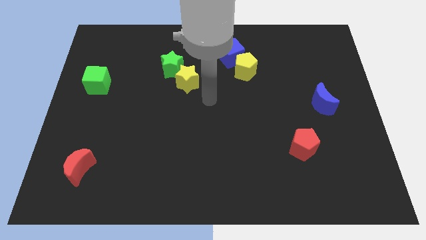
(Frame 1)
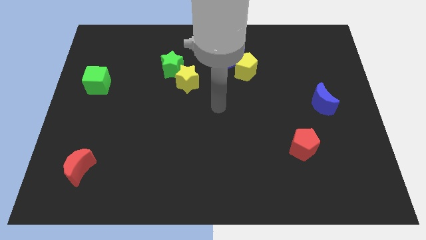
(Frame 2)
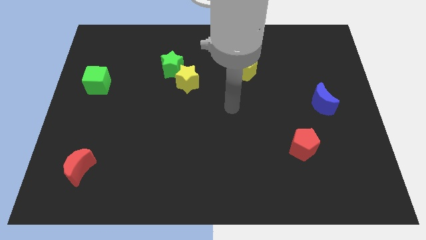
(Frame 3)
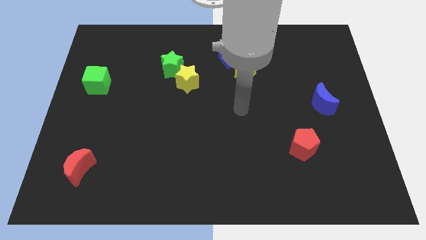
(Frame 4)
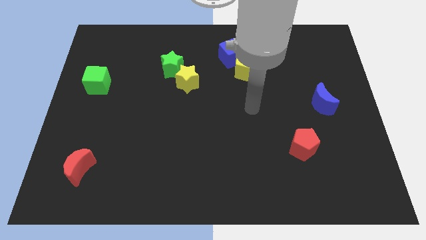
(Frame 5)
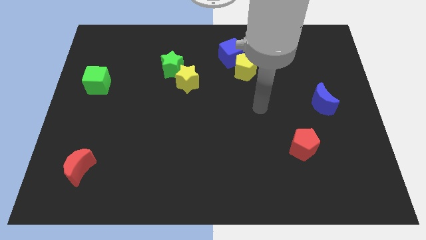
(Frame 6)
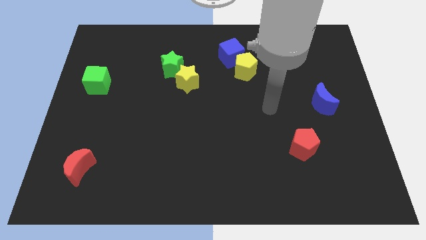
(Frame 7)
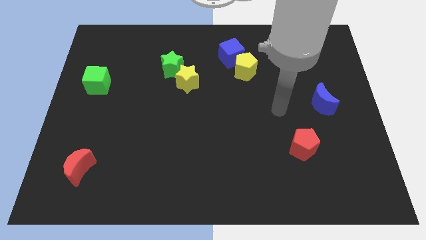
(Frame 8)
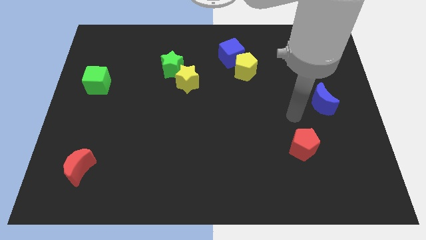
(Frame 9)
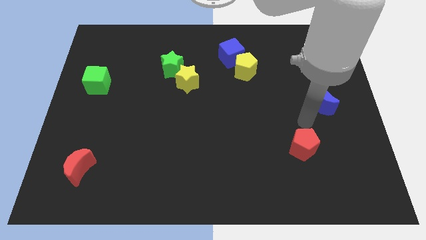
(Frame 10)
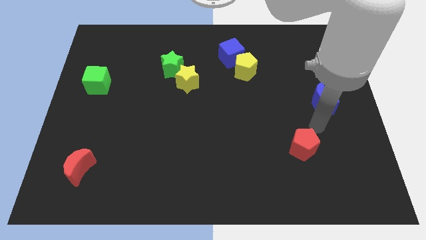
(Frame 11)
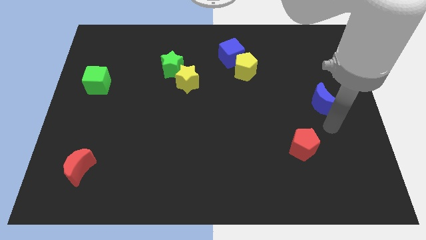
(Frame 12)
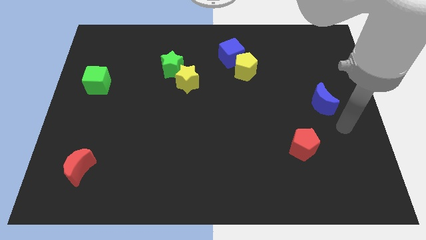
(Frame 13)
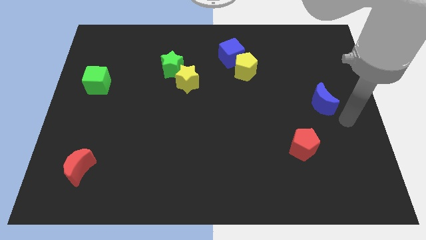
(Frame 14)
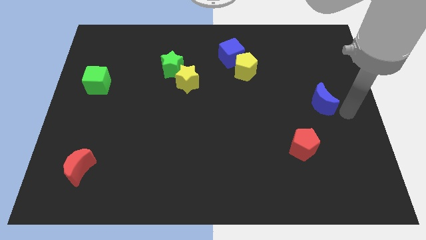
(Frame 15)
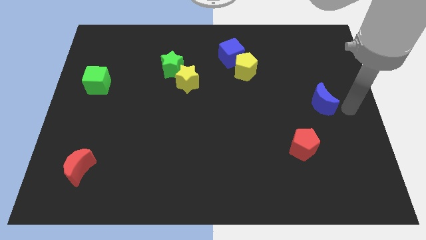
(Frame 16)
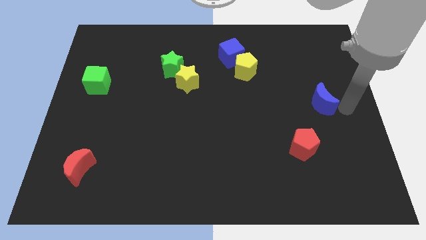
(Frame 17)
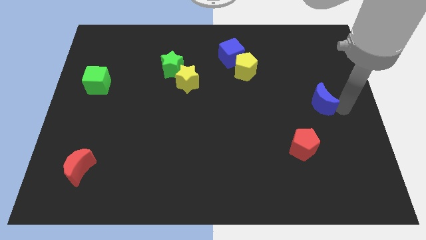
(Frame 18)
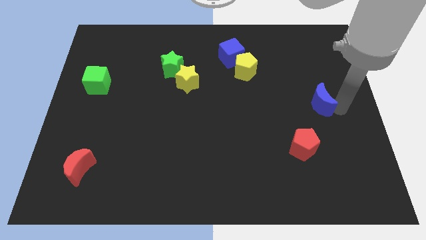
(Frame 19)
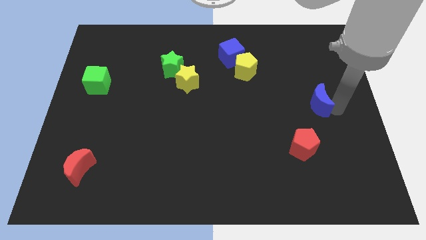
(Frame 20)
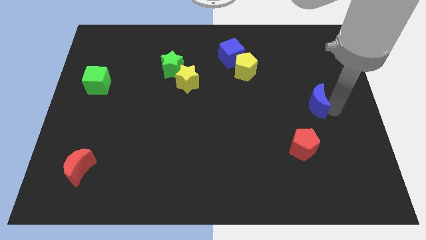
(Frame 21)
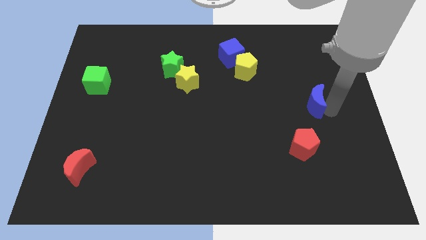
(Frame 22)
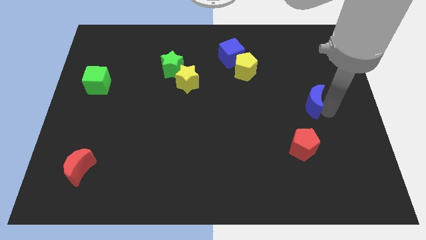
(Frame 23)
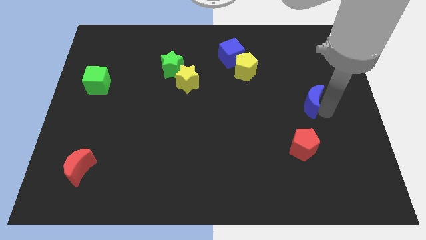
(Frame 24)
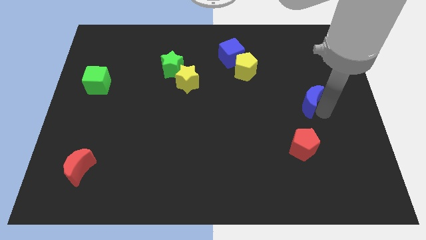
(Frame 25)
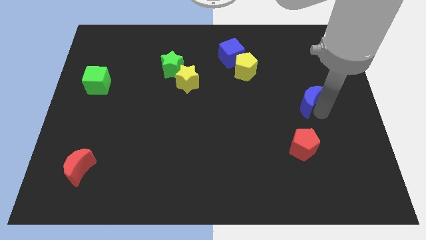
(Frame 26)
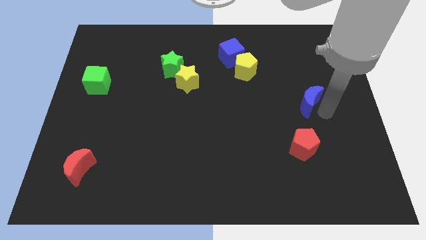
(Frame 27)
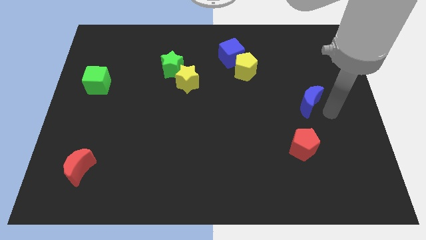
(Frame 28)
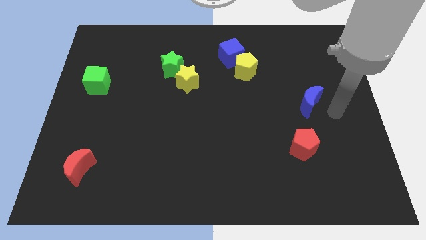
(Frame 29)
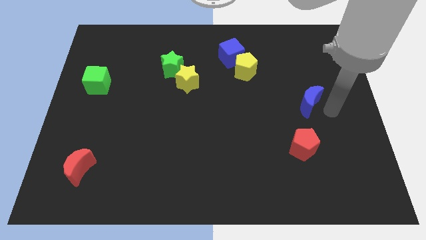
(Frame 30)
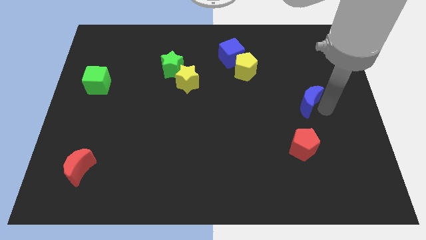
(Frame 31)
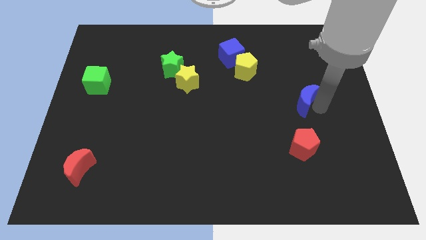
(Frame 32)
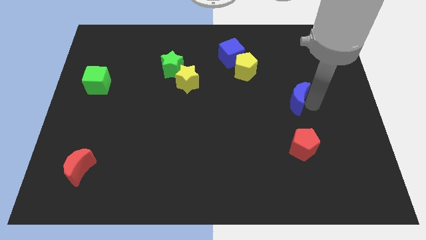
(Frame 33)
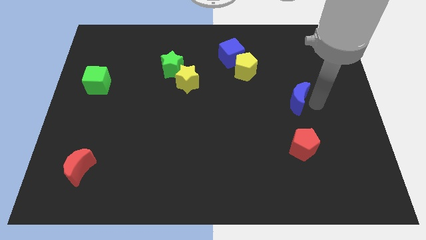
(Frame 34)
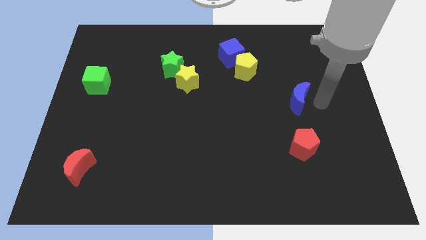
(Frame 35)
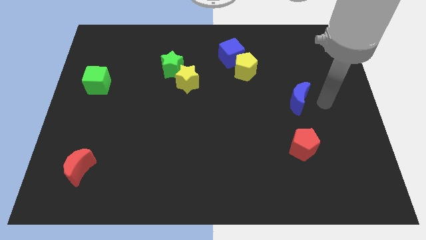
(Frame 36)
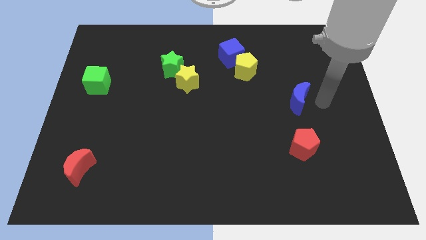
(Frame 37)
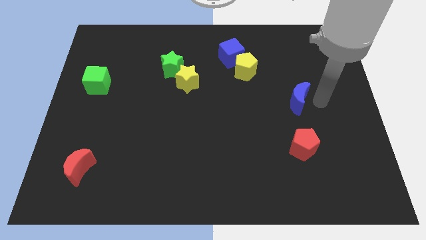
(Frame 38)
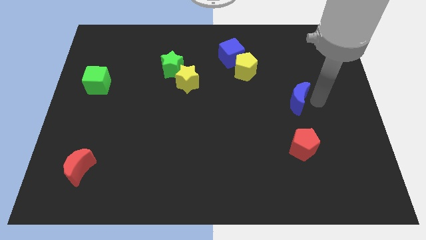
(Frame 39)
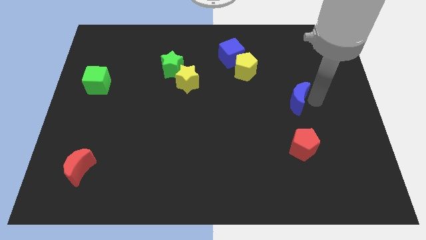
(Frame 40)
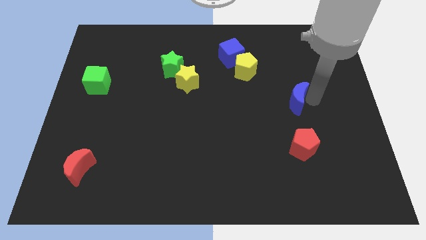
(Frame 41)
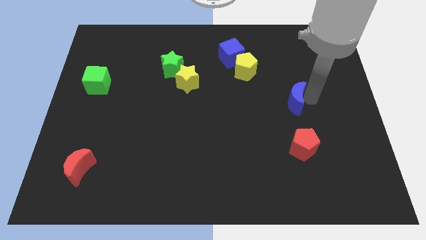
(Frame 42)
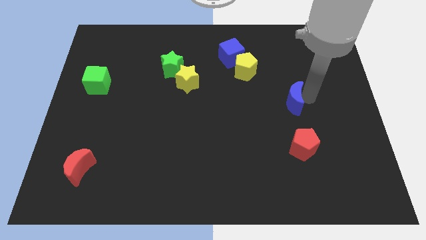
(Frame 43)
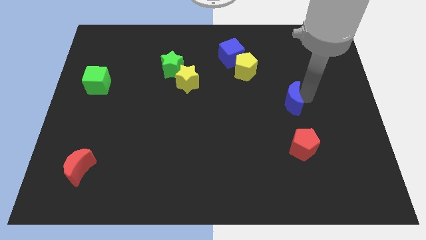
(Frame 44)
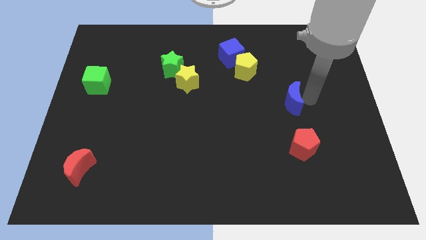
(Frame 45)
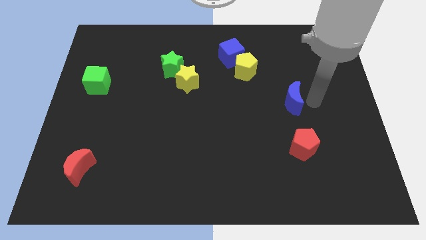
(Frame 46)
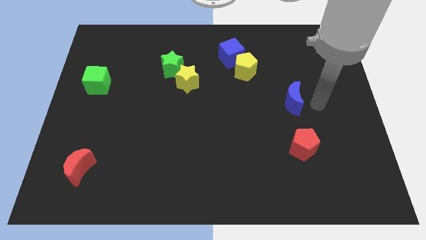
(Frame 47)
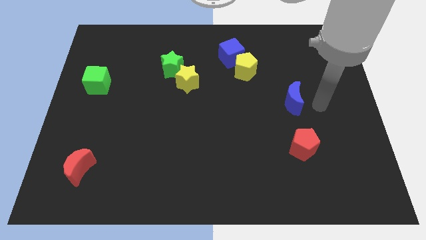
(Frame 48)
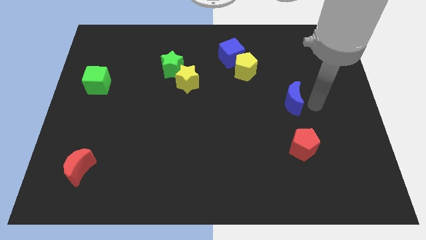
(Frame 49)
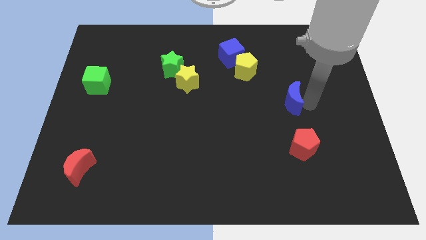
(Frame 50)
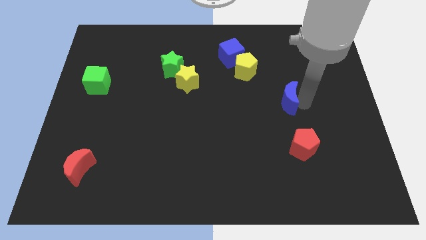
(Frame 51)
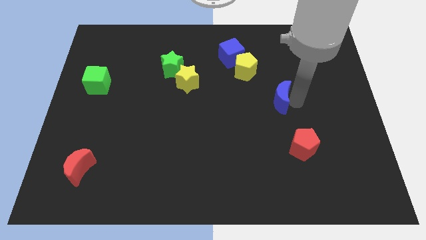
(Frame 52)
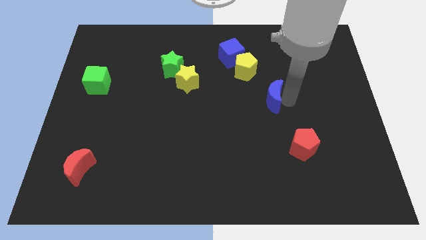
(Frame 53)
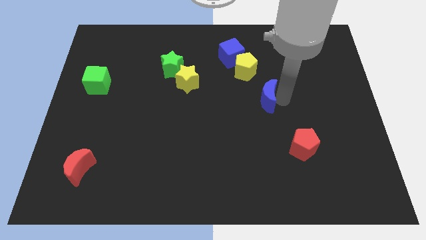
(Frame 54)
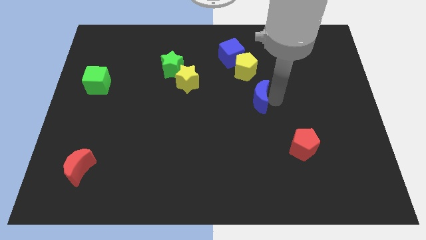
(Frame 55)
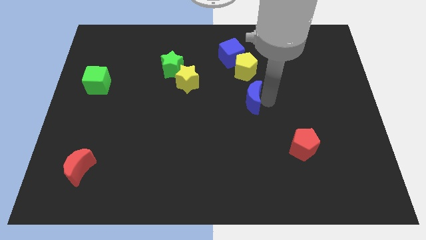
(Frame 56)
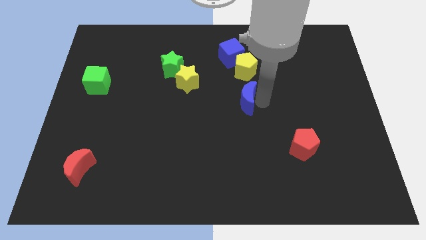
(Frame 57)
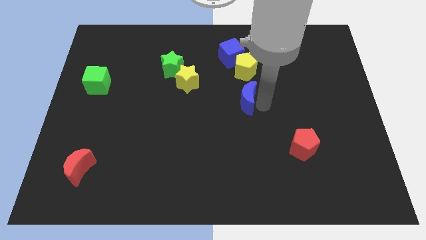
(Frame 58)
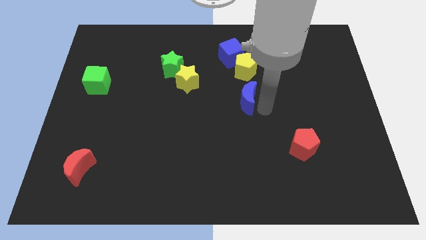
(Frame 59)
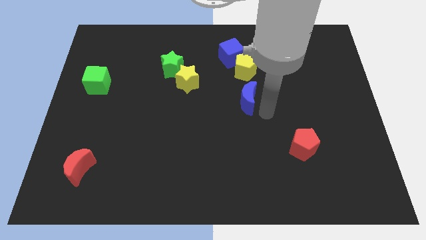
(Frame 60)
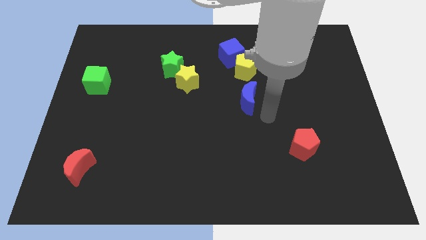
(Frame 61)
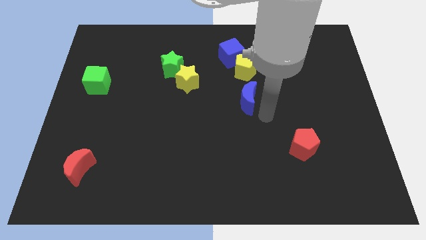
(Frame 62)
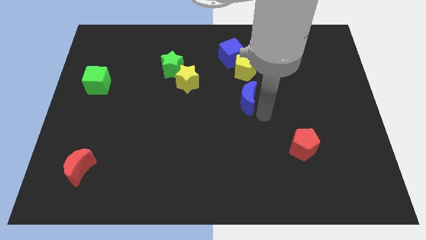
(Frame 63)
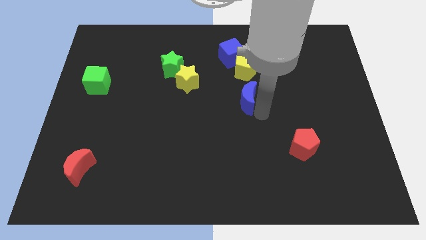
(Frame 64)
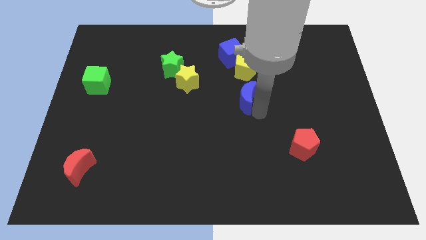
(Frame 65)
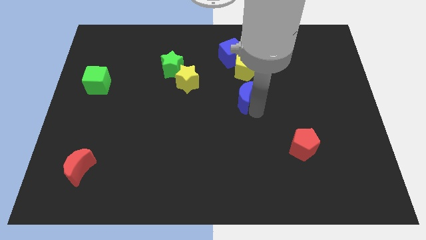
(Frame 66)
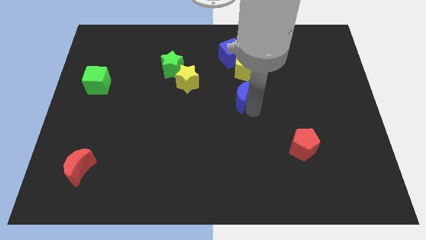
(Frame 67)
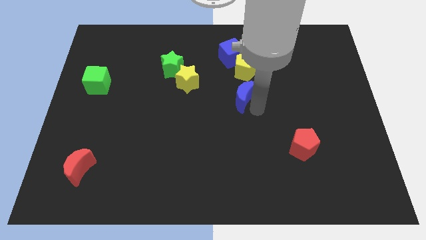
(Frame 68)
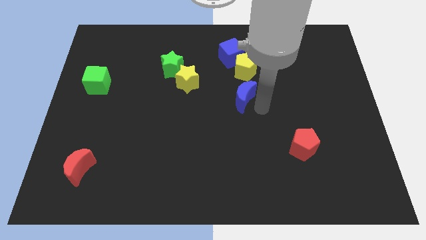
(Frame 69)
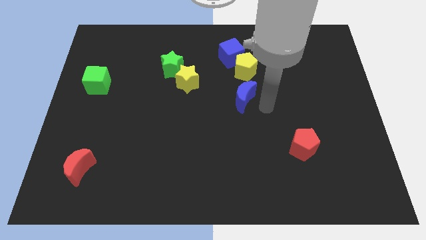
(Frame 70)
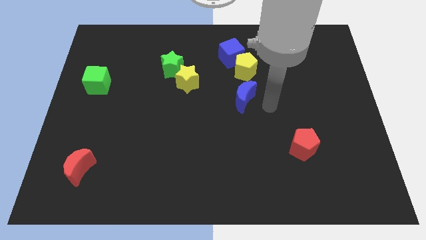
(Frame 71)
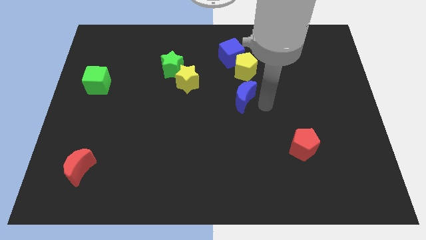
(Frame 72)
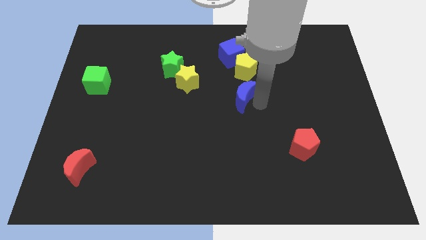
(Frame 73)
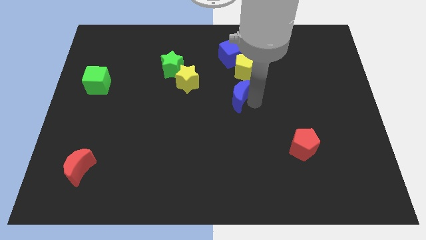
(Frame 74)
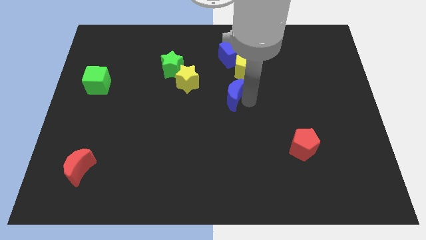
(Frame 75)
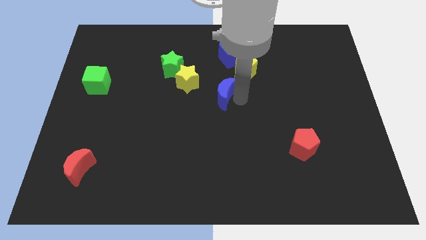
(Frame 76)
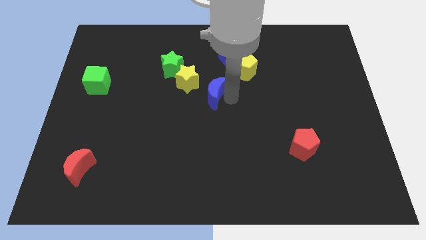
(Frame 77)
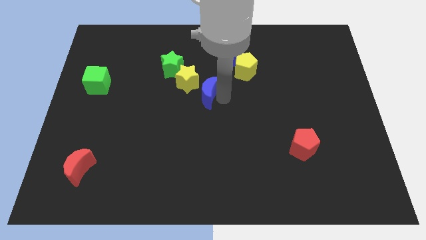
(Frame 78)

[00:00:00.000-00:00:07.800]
push the blue moon to the bottom right side of the green star
